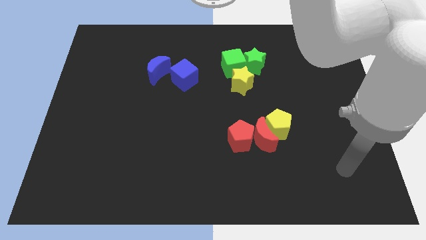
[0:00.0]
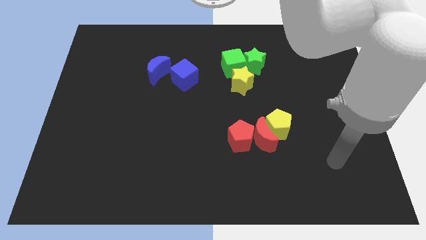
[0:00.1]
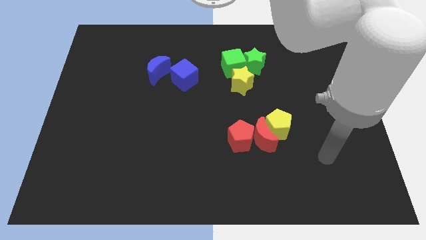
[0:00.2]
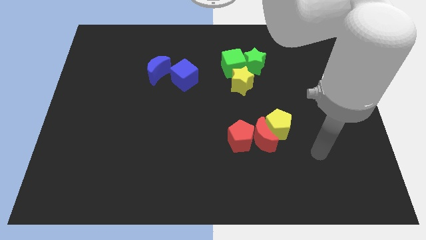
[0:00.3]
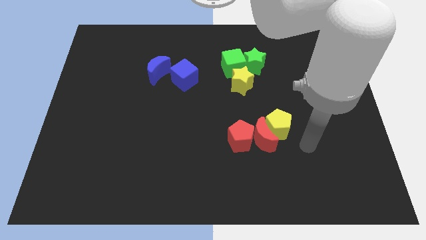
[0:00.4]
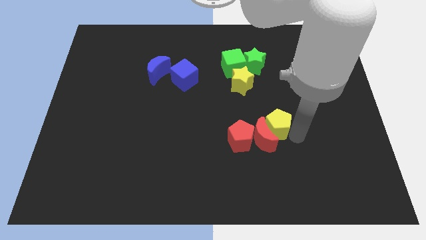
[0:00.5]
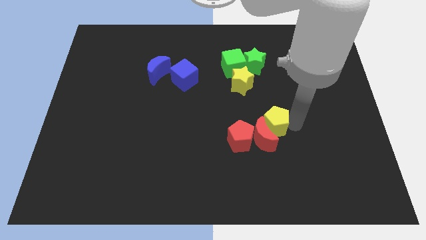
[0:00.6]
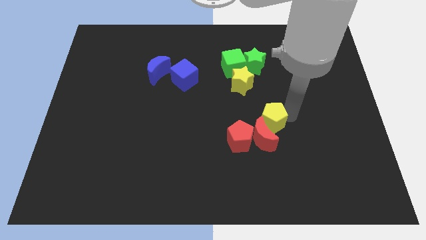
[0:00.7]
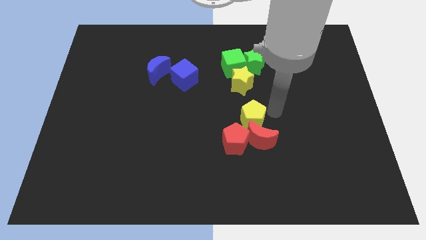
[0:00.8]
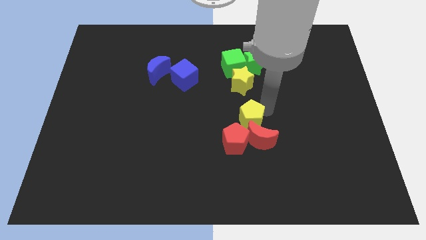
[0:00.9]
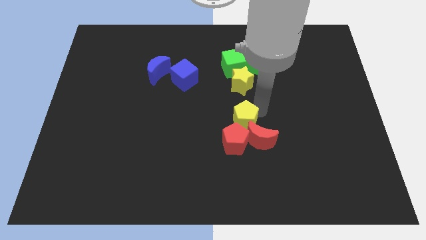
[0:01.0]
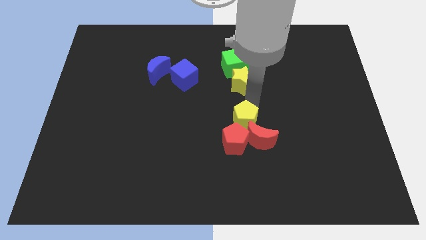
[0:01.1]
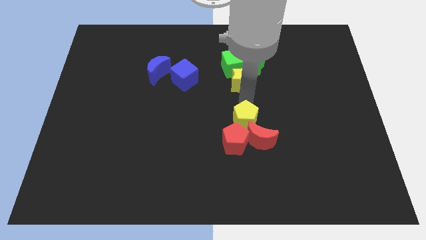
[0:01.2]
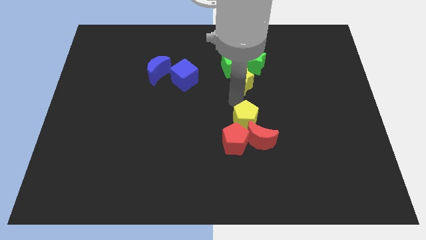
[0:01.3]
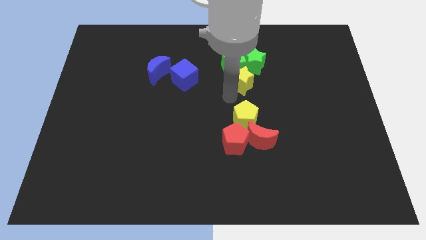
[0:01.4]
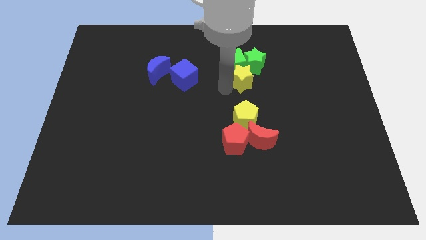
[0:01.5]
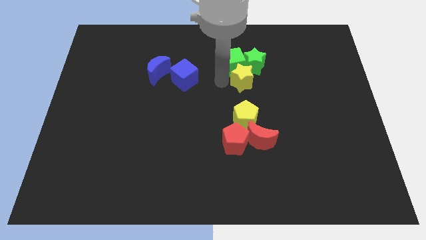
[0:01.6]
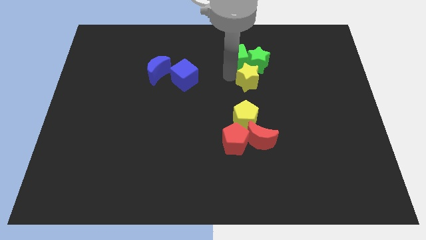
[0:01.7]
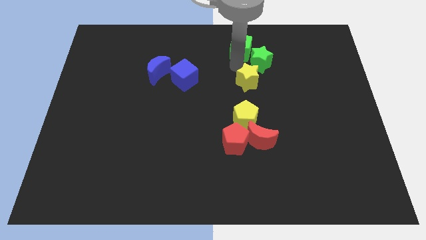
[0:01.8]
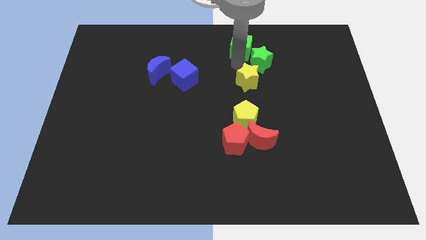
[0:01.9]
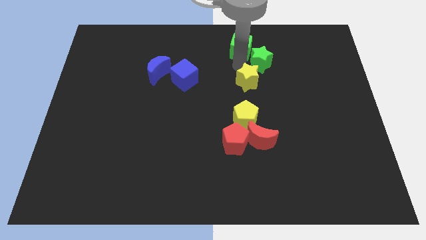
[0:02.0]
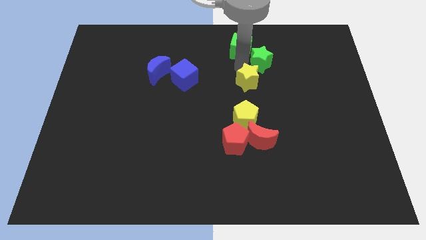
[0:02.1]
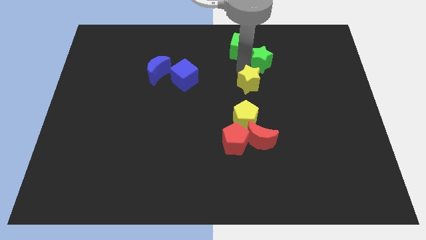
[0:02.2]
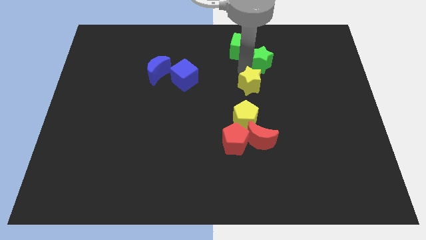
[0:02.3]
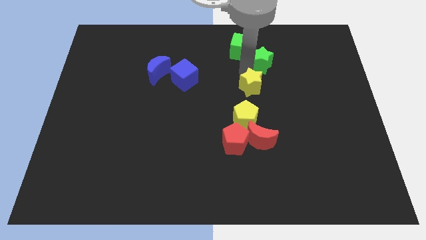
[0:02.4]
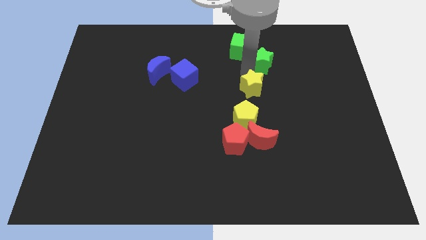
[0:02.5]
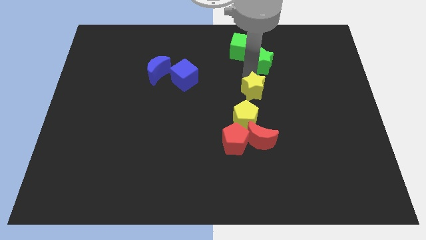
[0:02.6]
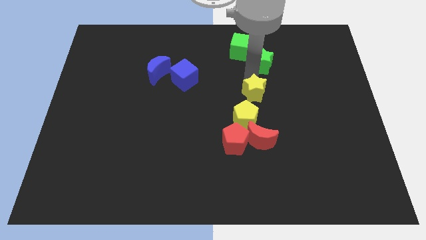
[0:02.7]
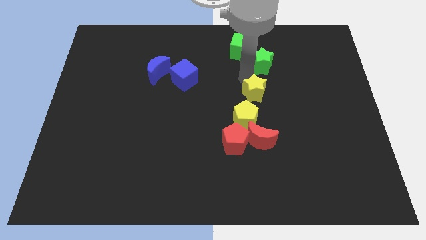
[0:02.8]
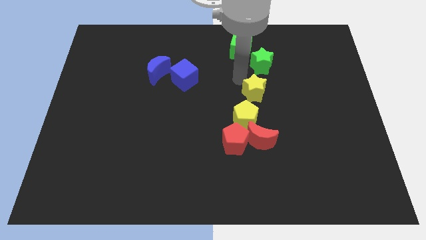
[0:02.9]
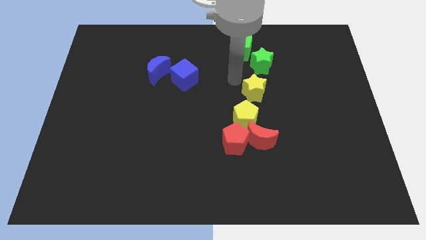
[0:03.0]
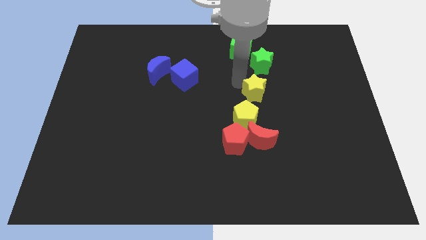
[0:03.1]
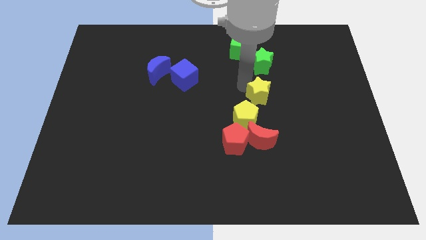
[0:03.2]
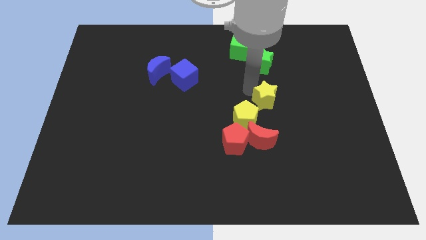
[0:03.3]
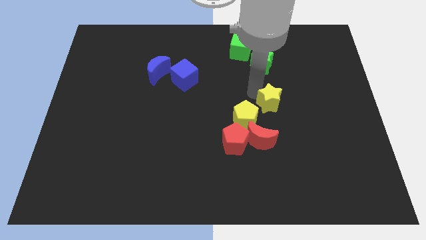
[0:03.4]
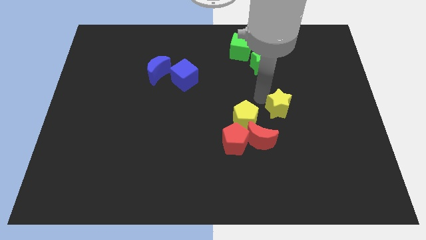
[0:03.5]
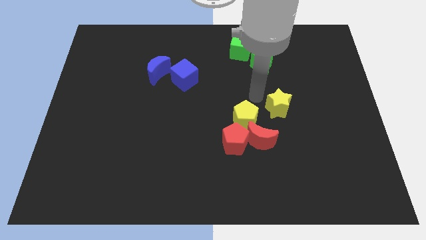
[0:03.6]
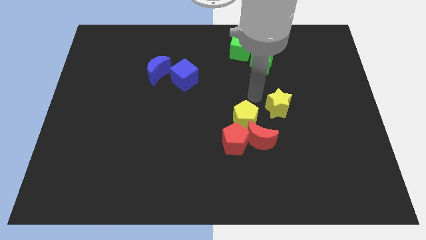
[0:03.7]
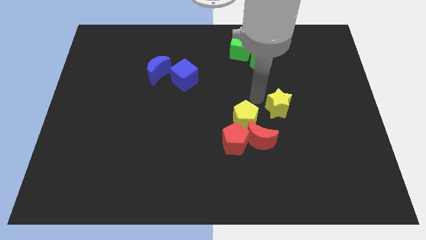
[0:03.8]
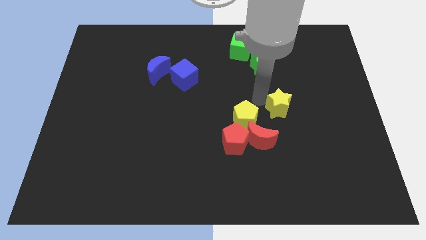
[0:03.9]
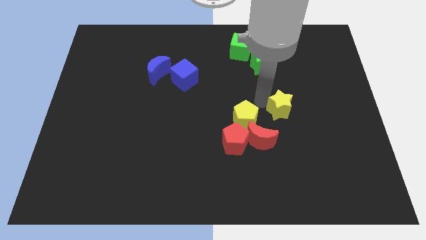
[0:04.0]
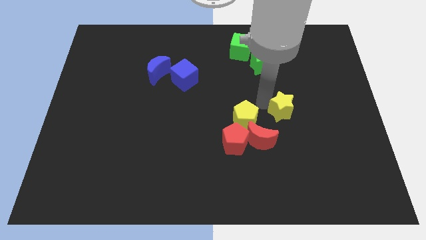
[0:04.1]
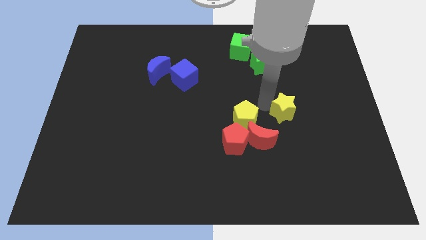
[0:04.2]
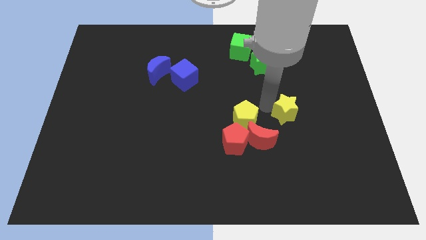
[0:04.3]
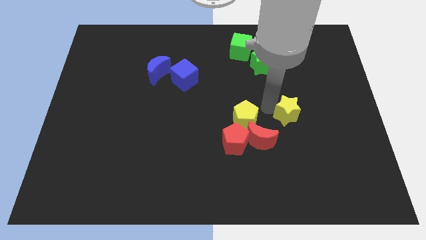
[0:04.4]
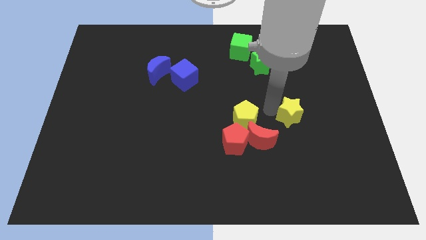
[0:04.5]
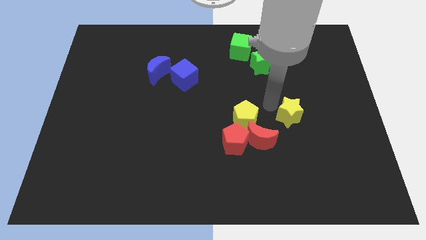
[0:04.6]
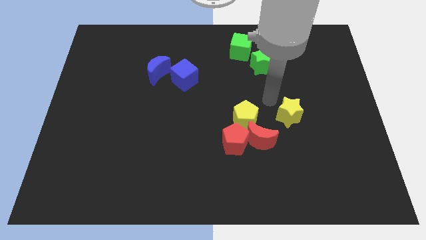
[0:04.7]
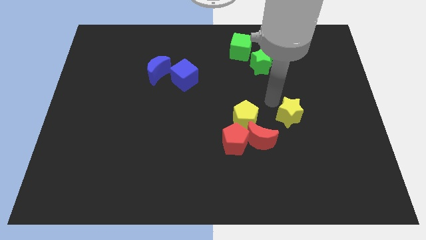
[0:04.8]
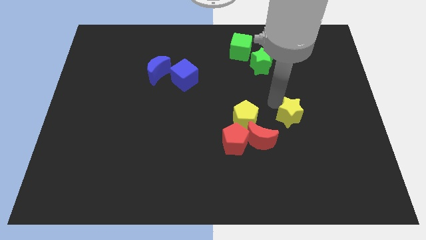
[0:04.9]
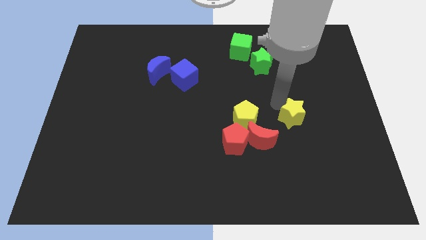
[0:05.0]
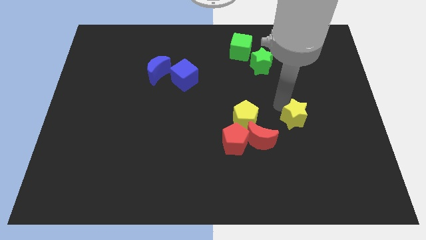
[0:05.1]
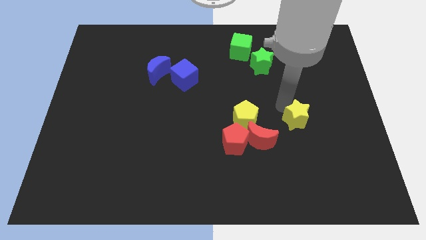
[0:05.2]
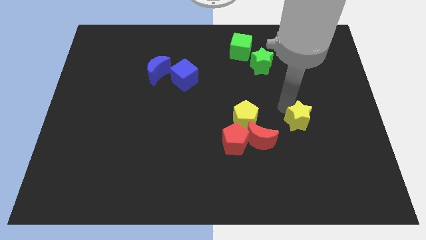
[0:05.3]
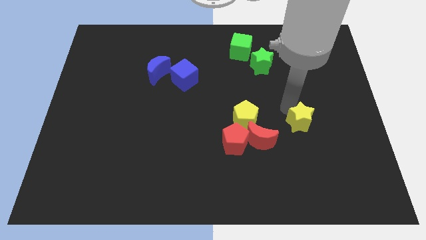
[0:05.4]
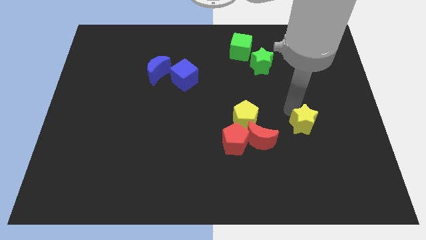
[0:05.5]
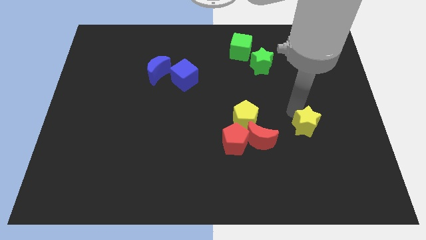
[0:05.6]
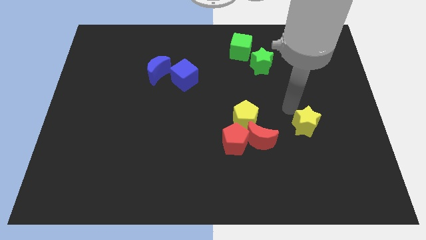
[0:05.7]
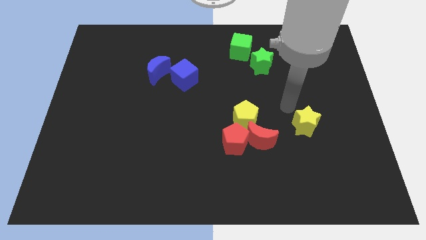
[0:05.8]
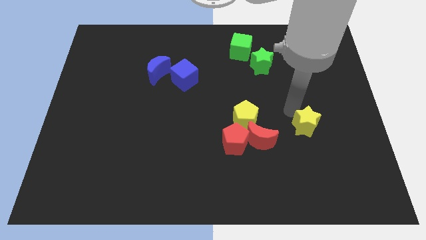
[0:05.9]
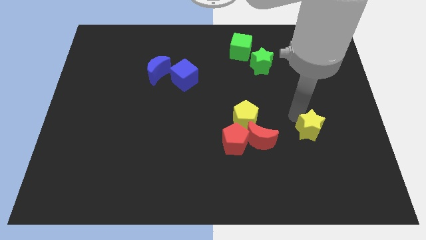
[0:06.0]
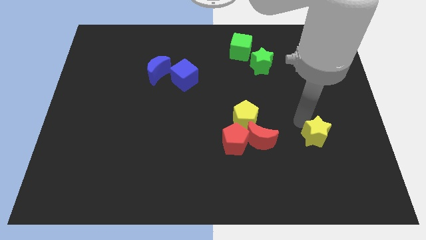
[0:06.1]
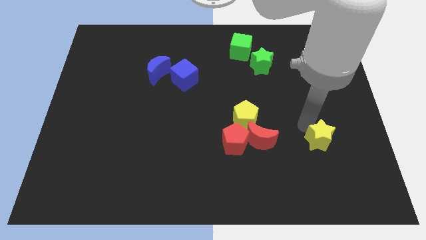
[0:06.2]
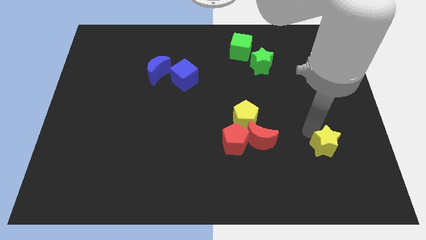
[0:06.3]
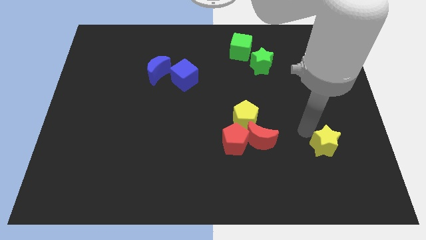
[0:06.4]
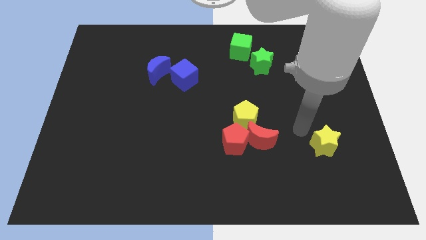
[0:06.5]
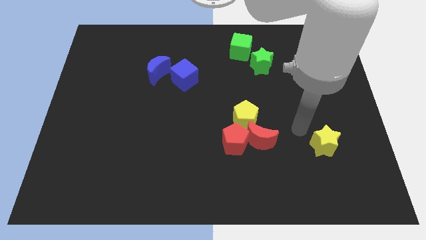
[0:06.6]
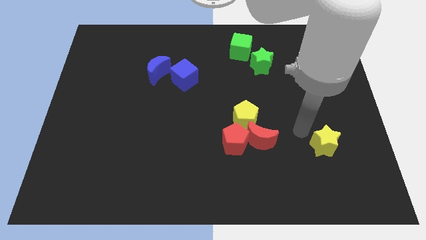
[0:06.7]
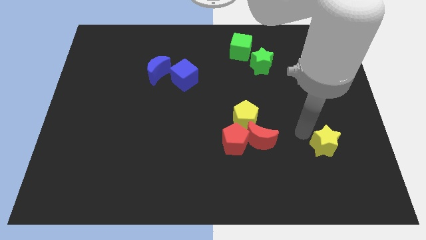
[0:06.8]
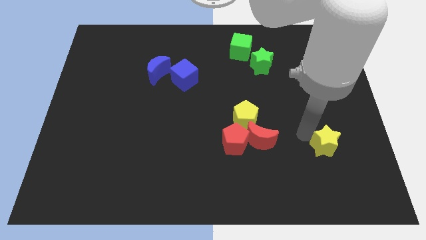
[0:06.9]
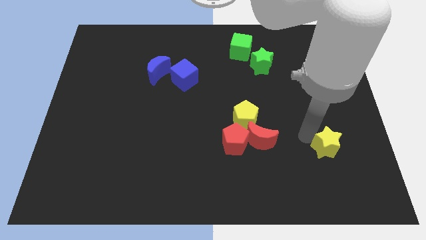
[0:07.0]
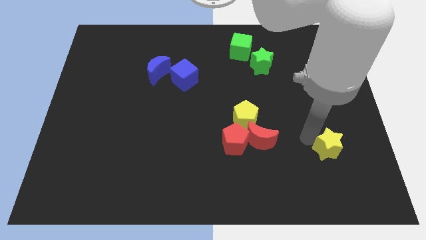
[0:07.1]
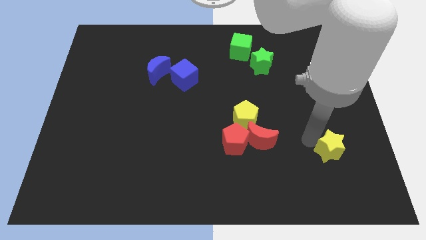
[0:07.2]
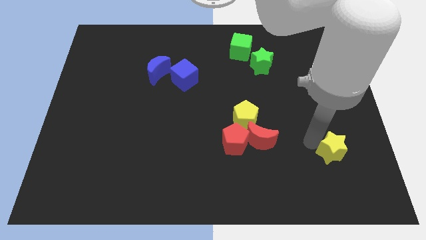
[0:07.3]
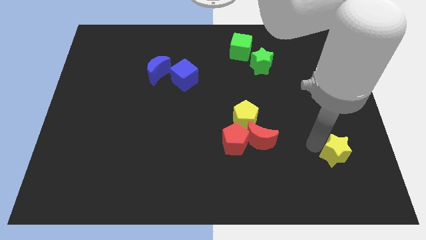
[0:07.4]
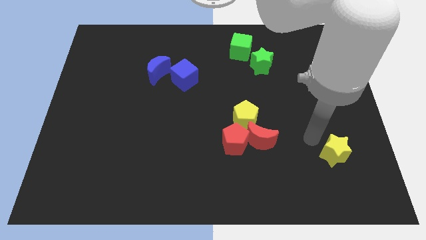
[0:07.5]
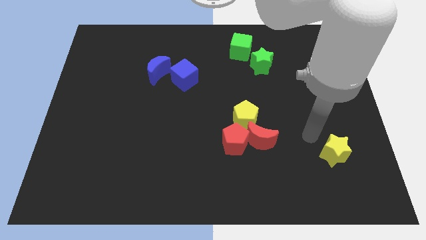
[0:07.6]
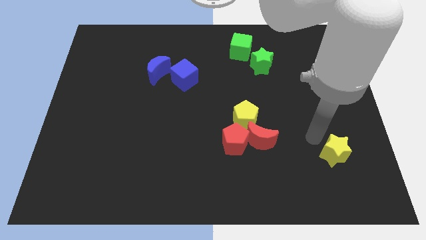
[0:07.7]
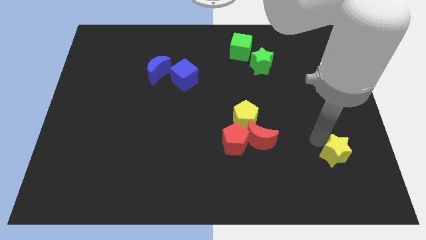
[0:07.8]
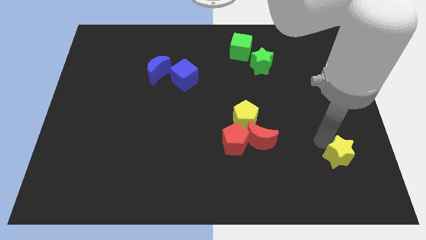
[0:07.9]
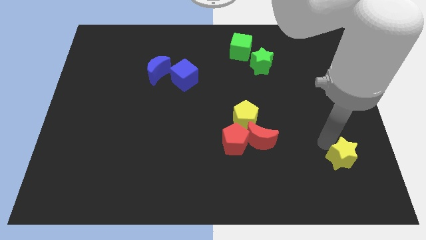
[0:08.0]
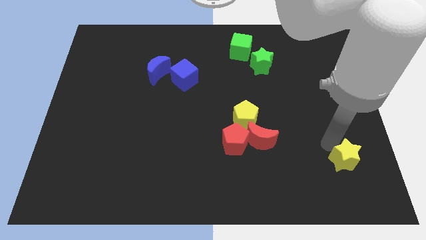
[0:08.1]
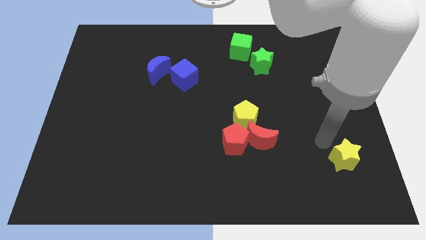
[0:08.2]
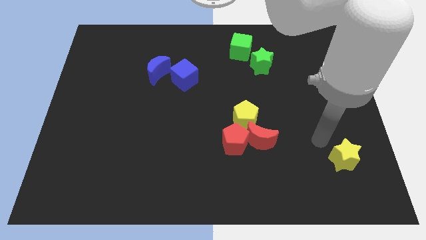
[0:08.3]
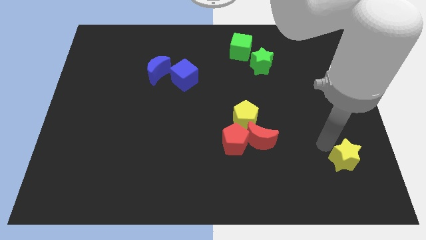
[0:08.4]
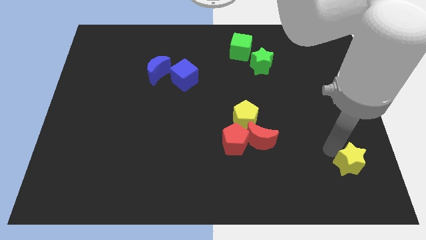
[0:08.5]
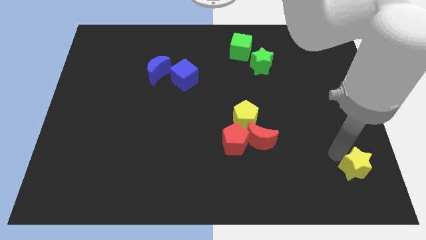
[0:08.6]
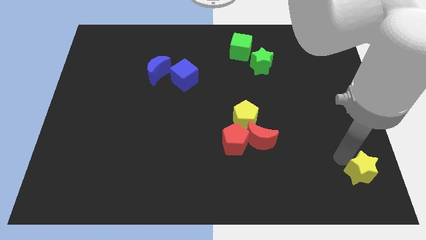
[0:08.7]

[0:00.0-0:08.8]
move the yellow star to the bottom right of the board
